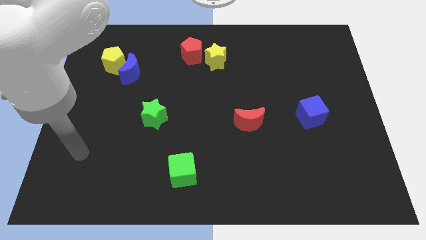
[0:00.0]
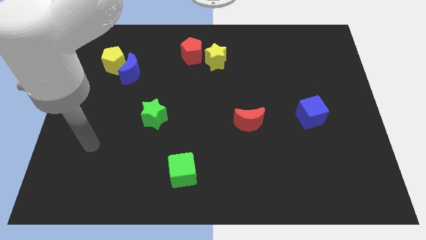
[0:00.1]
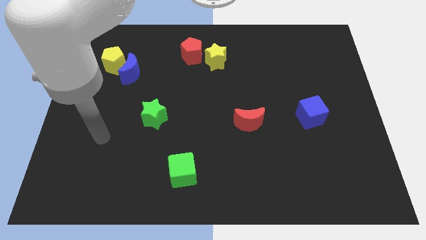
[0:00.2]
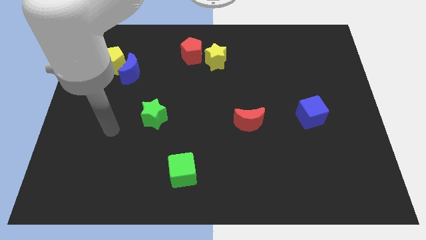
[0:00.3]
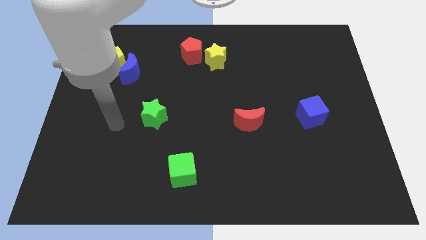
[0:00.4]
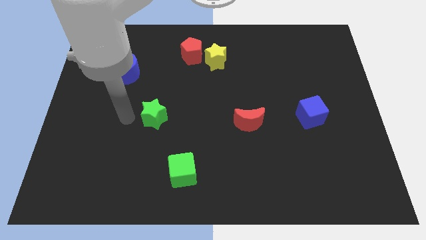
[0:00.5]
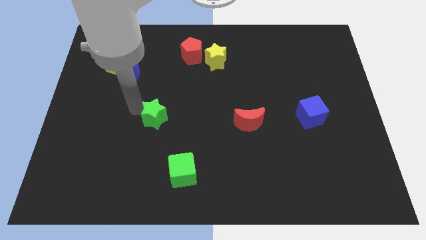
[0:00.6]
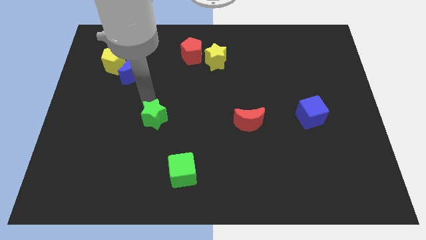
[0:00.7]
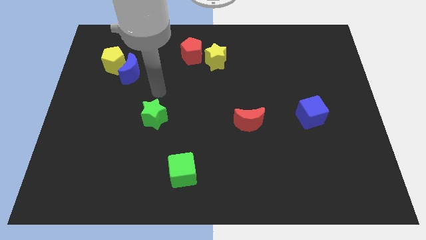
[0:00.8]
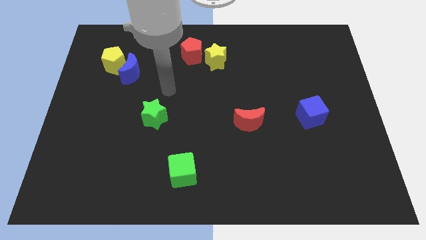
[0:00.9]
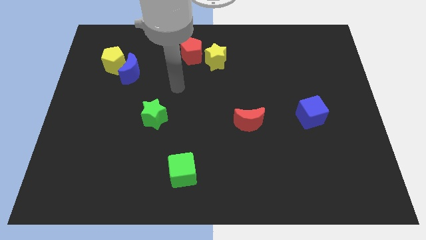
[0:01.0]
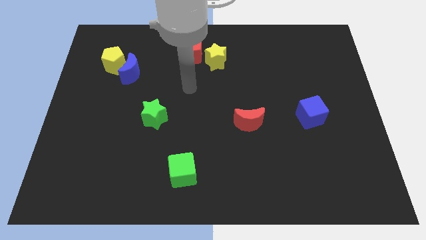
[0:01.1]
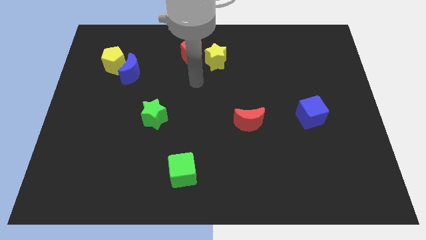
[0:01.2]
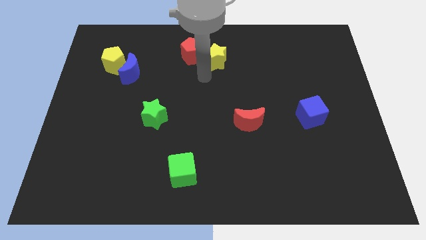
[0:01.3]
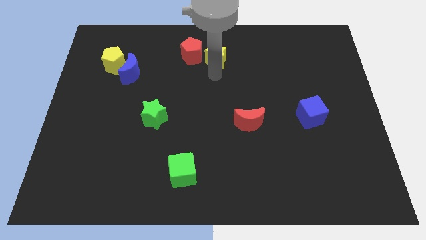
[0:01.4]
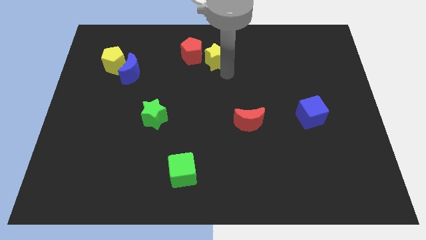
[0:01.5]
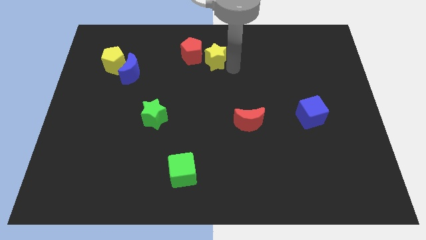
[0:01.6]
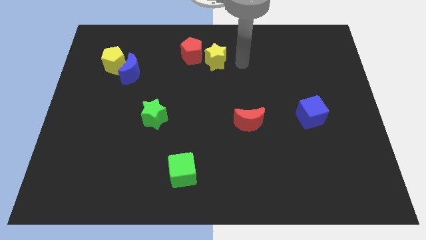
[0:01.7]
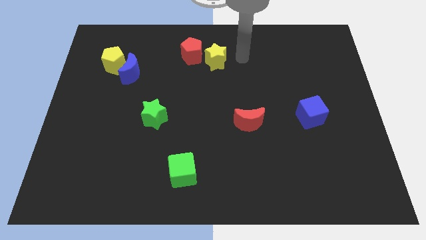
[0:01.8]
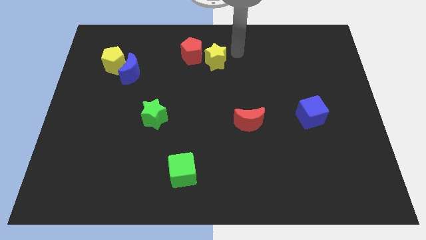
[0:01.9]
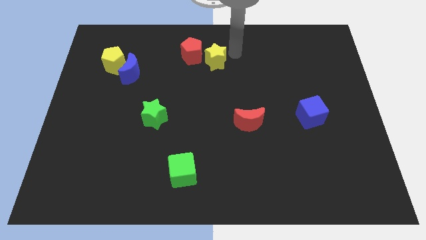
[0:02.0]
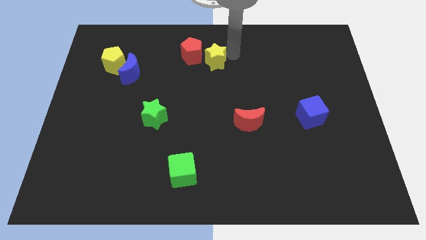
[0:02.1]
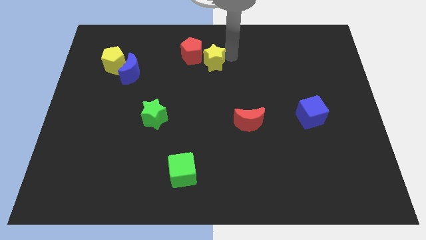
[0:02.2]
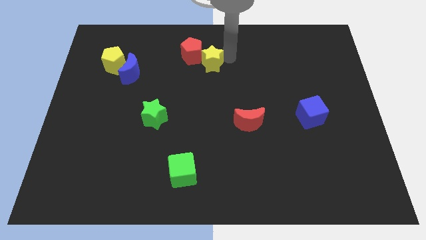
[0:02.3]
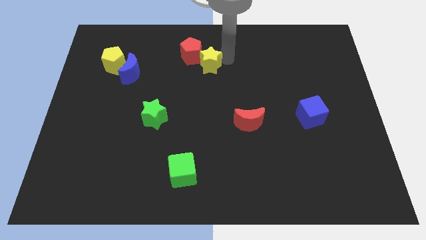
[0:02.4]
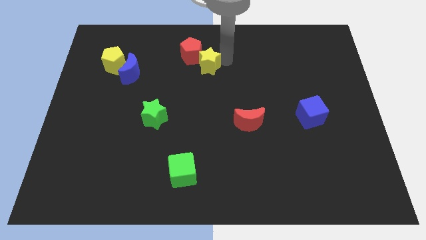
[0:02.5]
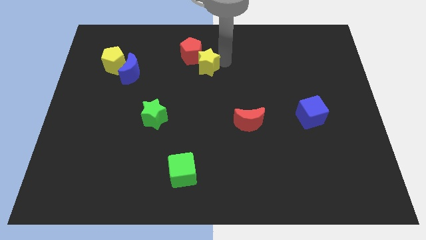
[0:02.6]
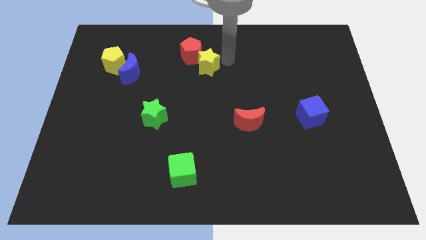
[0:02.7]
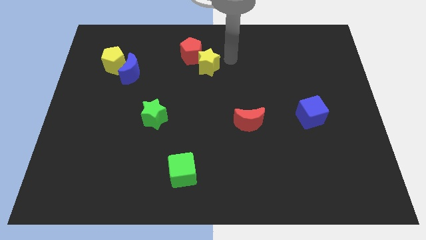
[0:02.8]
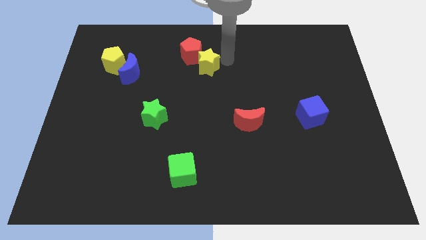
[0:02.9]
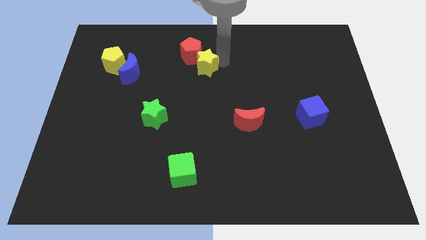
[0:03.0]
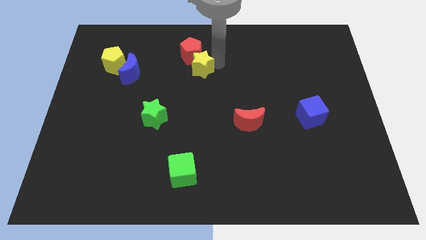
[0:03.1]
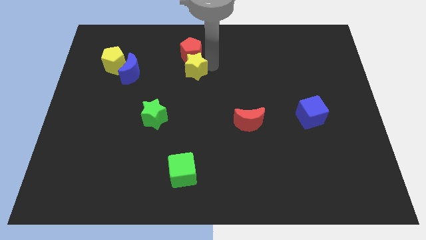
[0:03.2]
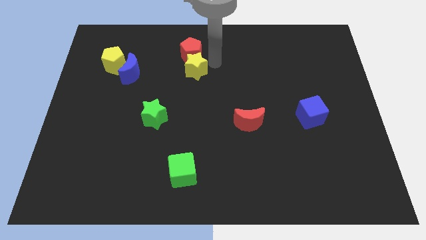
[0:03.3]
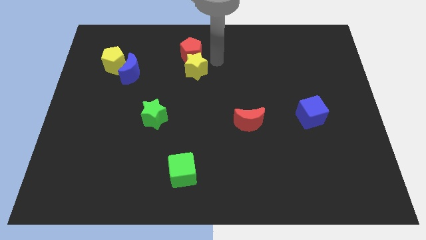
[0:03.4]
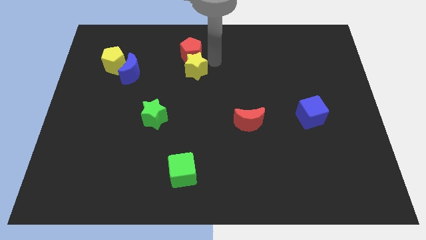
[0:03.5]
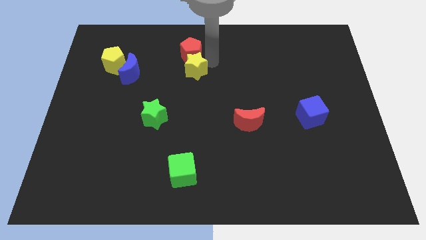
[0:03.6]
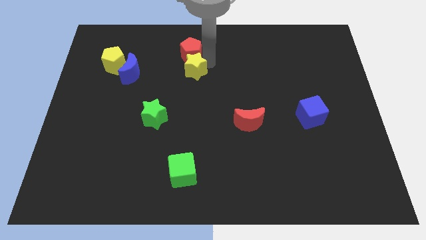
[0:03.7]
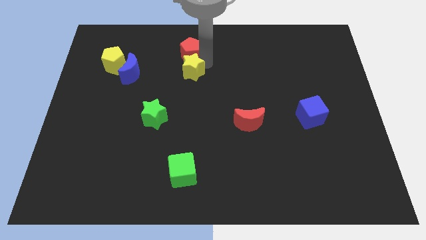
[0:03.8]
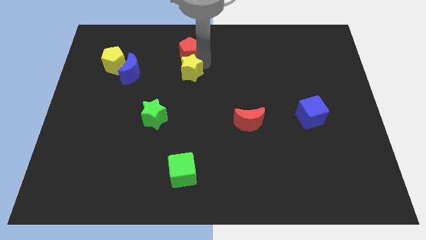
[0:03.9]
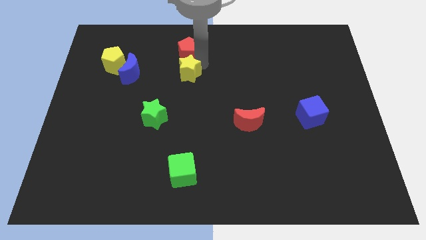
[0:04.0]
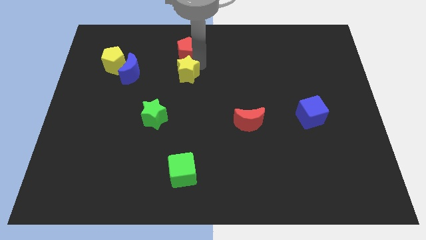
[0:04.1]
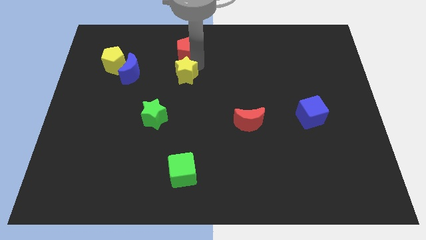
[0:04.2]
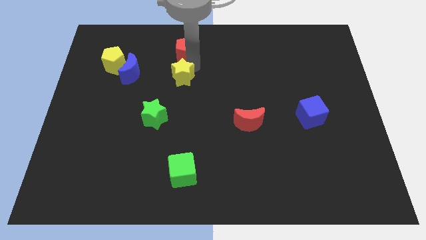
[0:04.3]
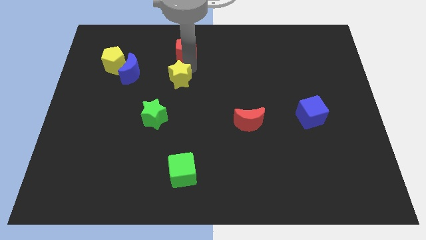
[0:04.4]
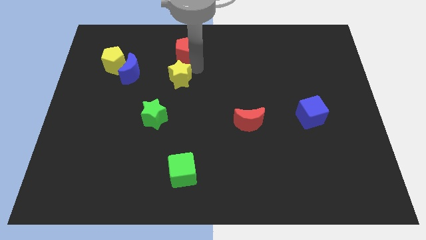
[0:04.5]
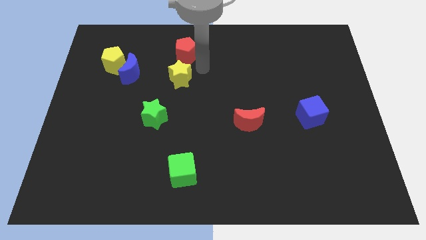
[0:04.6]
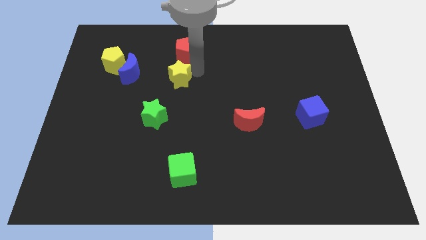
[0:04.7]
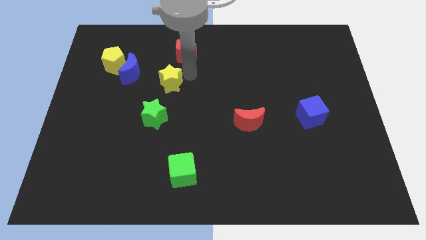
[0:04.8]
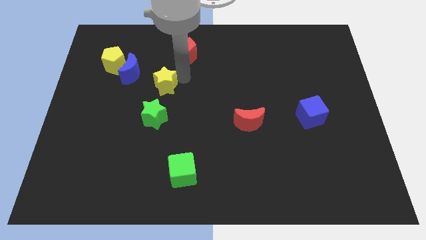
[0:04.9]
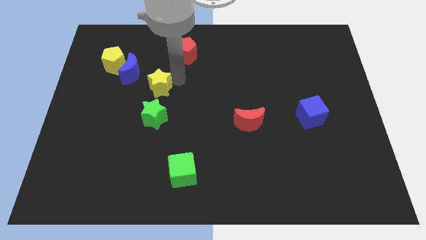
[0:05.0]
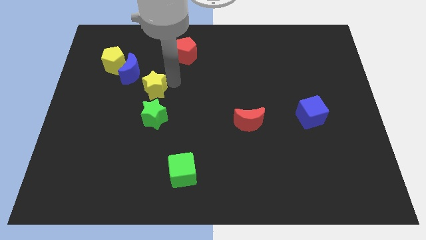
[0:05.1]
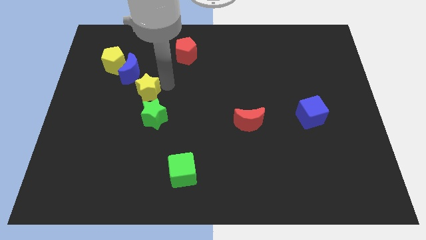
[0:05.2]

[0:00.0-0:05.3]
slide the yellow star to the top left of the green star

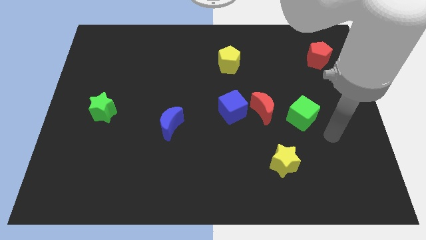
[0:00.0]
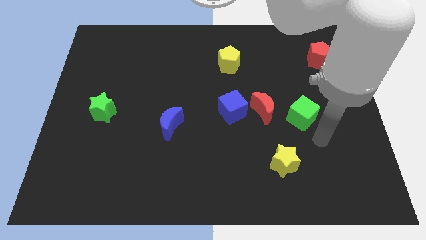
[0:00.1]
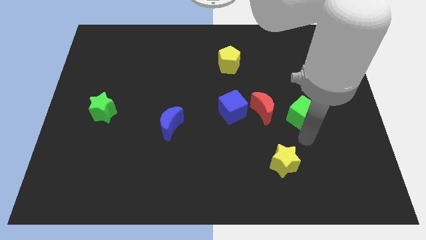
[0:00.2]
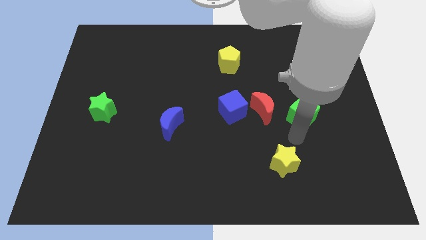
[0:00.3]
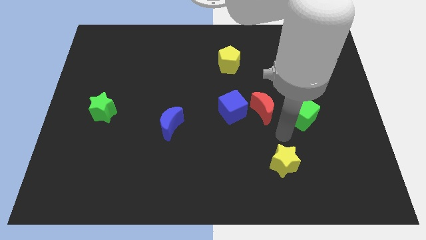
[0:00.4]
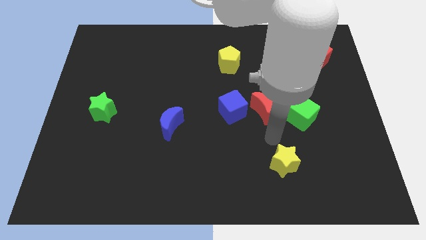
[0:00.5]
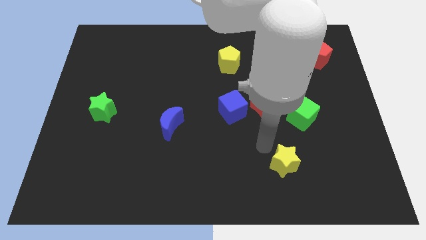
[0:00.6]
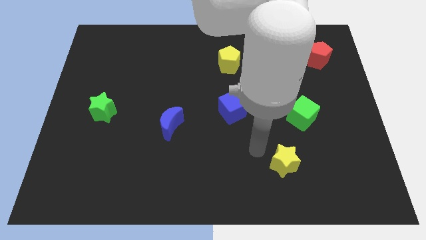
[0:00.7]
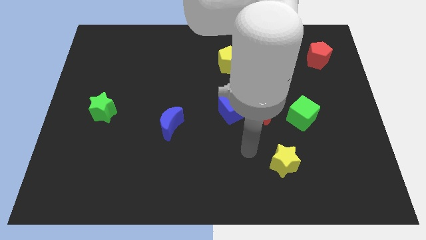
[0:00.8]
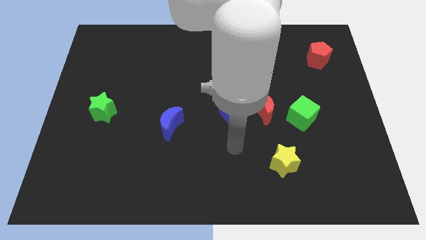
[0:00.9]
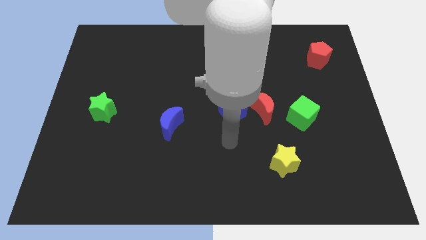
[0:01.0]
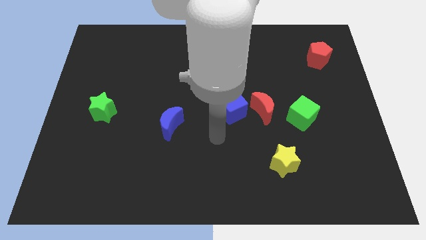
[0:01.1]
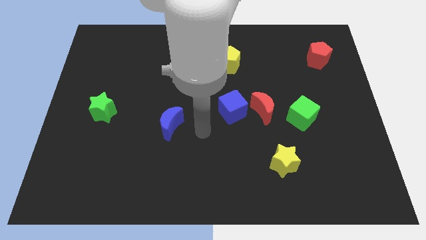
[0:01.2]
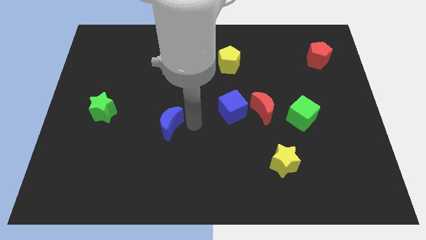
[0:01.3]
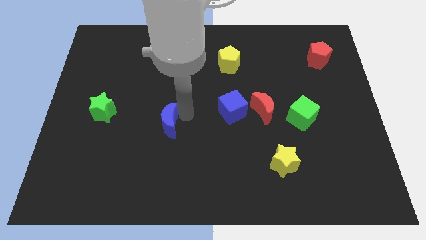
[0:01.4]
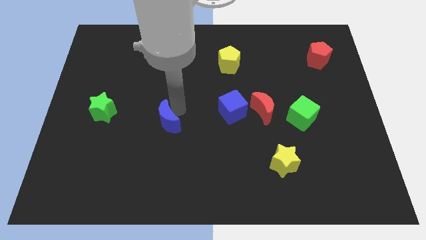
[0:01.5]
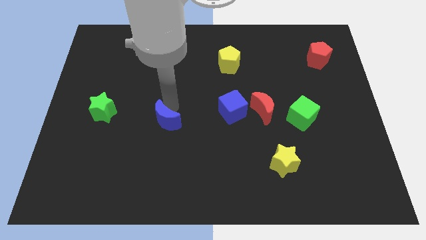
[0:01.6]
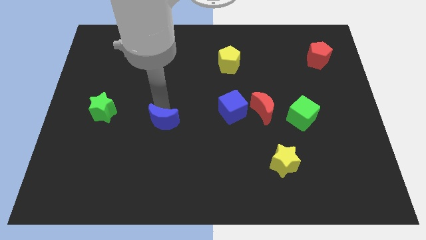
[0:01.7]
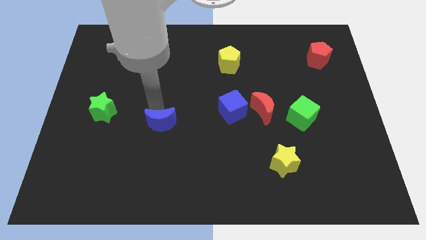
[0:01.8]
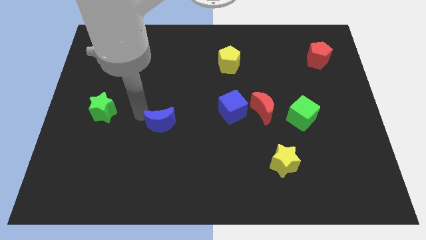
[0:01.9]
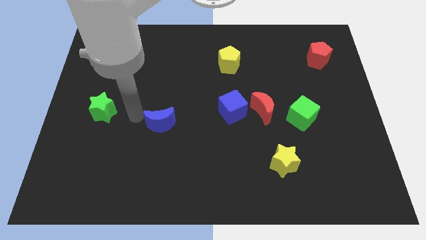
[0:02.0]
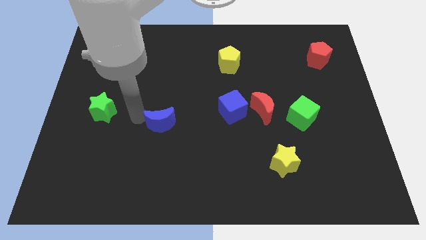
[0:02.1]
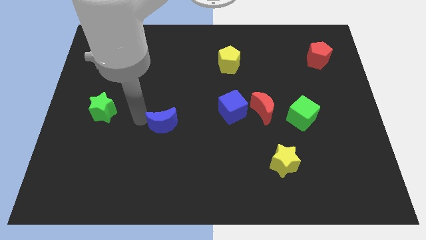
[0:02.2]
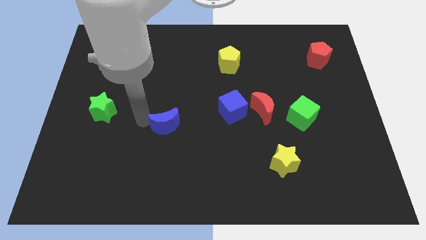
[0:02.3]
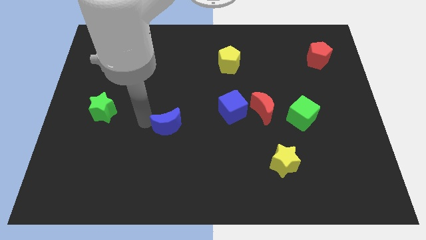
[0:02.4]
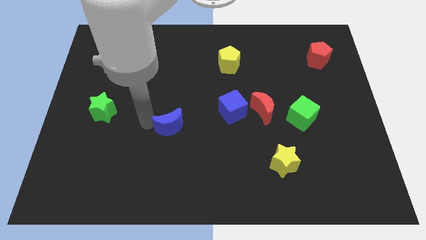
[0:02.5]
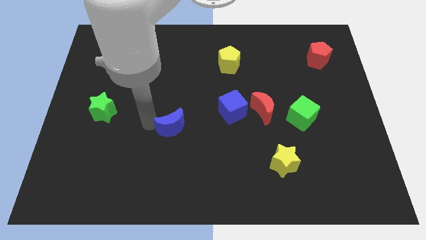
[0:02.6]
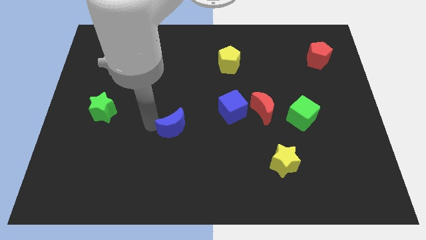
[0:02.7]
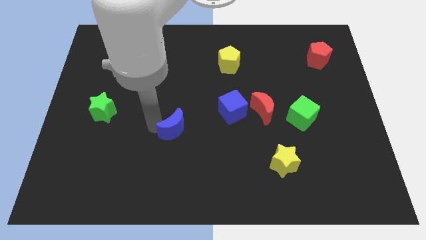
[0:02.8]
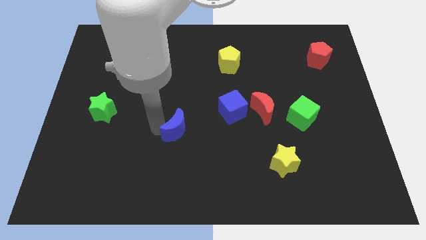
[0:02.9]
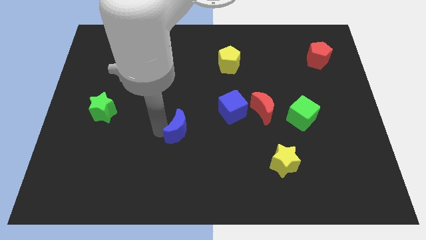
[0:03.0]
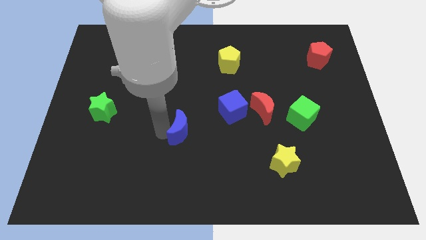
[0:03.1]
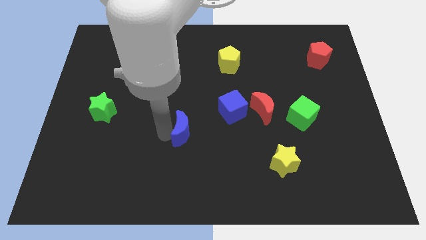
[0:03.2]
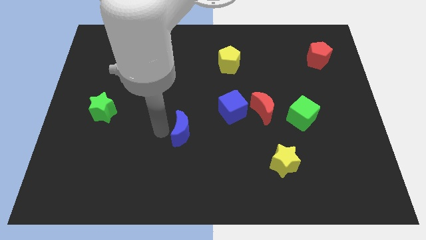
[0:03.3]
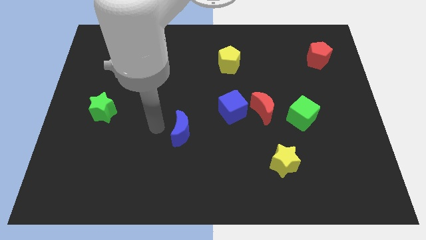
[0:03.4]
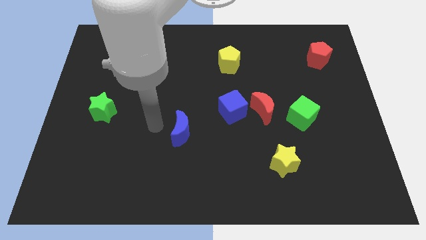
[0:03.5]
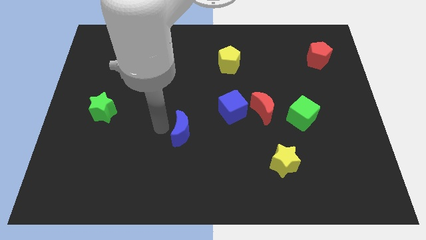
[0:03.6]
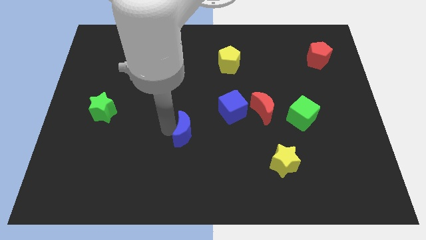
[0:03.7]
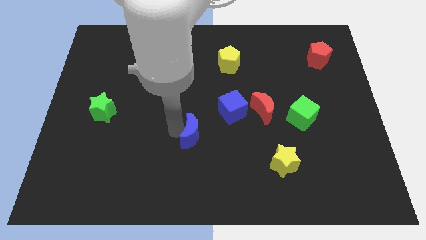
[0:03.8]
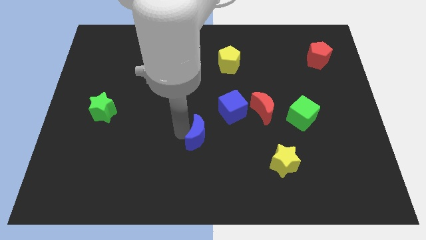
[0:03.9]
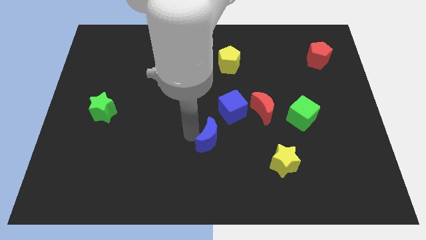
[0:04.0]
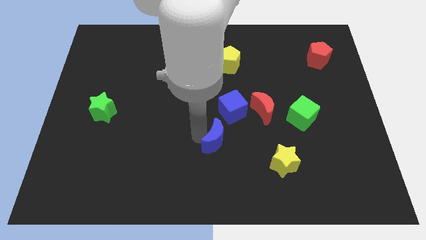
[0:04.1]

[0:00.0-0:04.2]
put the blue moon below the blue cube
